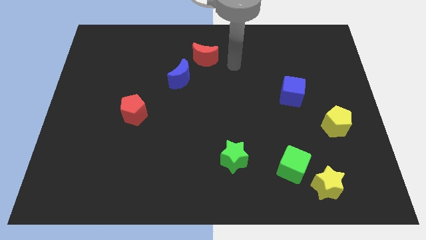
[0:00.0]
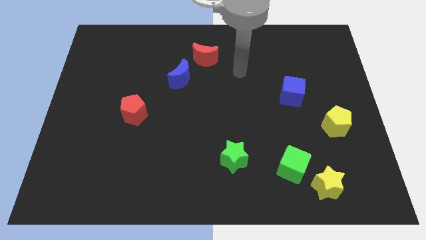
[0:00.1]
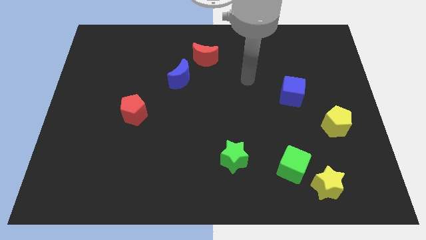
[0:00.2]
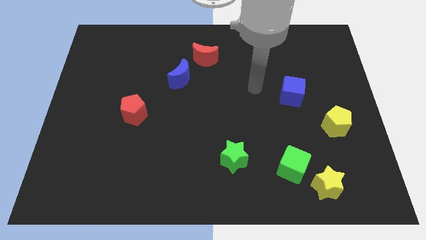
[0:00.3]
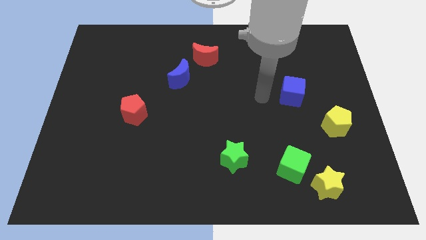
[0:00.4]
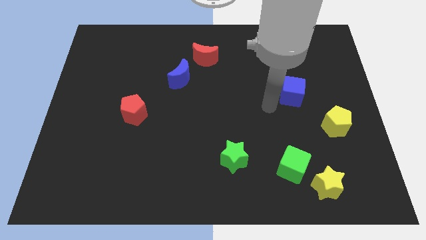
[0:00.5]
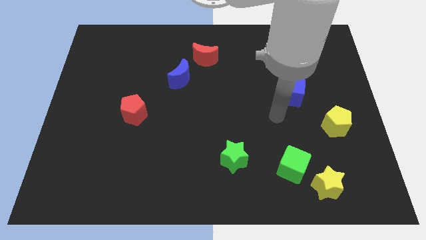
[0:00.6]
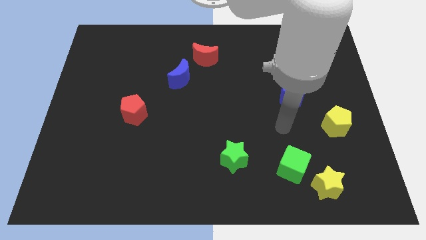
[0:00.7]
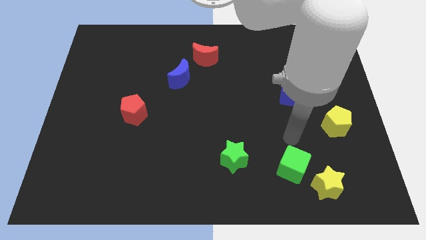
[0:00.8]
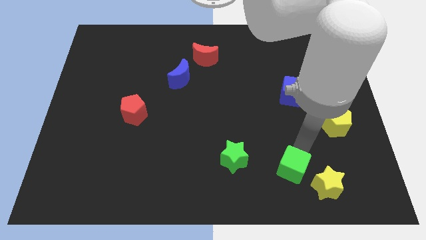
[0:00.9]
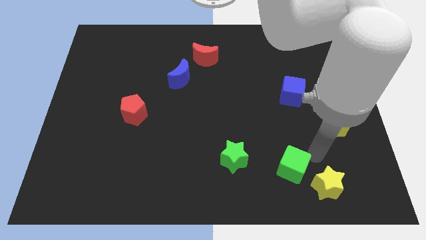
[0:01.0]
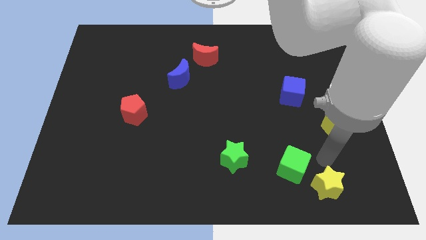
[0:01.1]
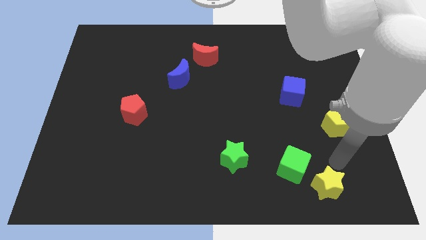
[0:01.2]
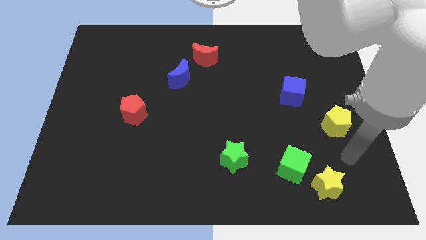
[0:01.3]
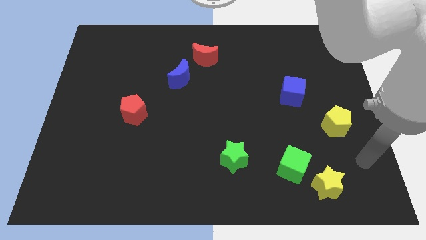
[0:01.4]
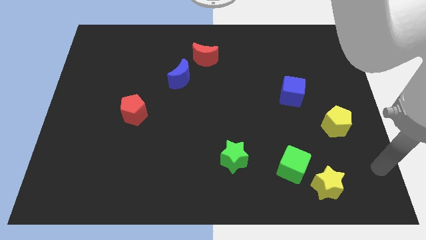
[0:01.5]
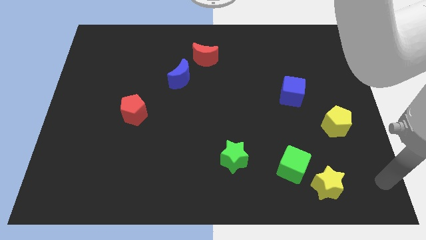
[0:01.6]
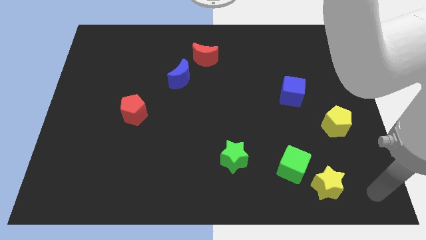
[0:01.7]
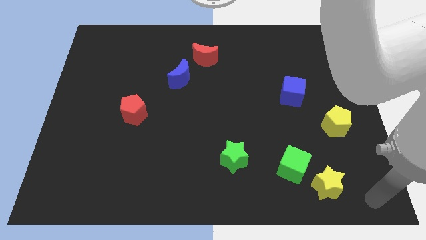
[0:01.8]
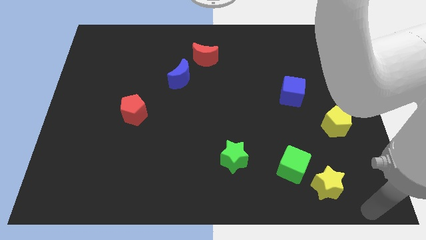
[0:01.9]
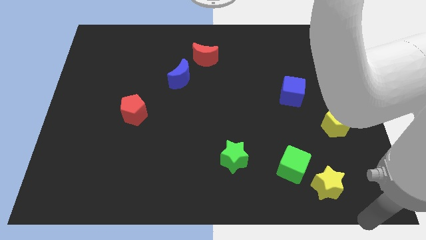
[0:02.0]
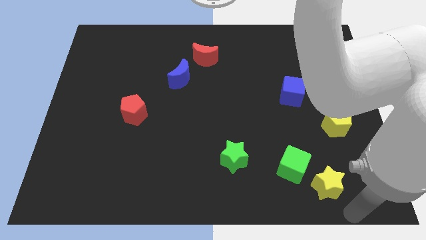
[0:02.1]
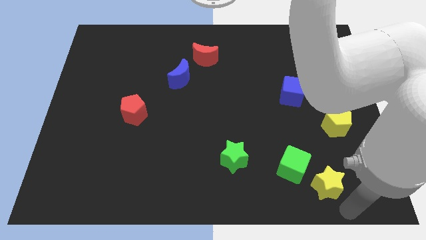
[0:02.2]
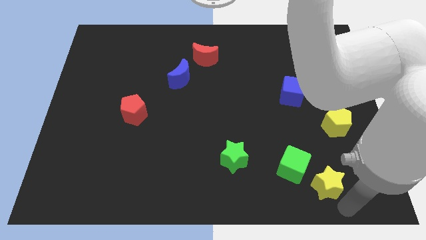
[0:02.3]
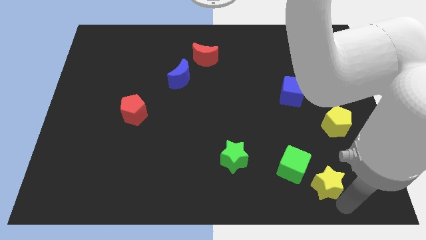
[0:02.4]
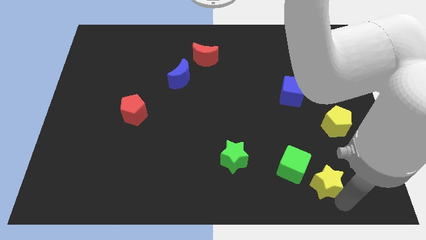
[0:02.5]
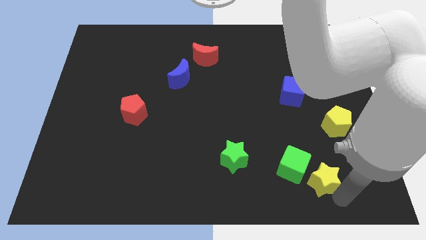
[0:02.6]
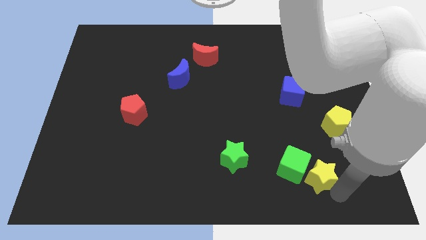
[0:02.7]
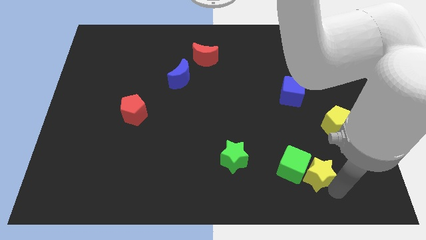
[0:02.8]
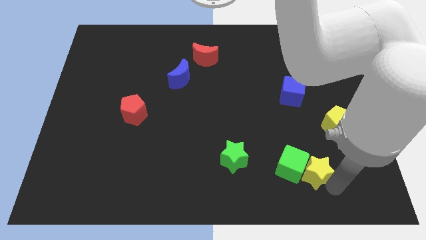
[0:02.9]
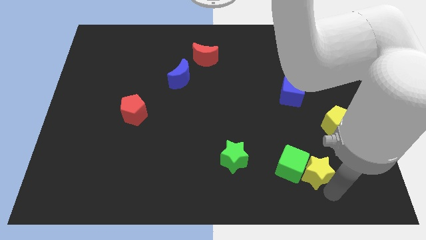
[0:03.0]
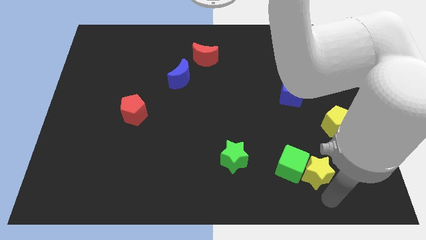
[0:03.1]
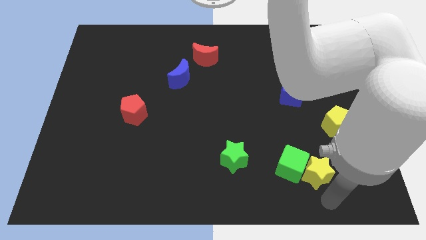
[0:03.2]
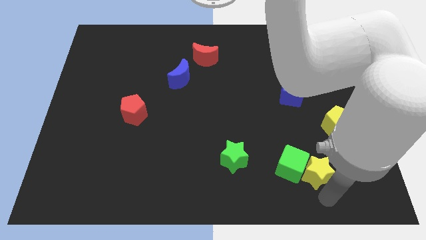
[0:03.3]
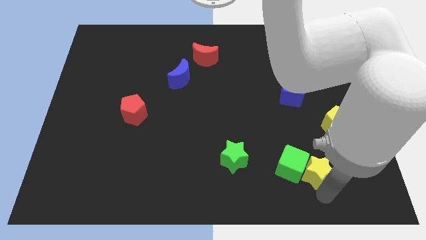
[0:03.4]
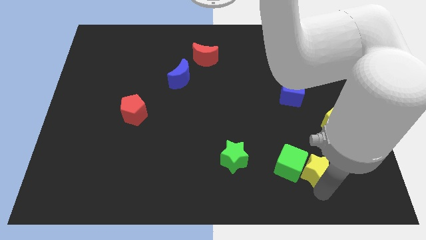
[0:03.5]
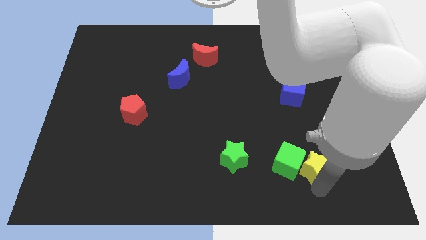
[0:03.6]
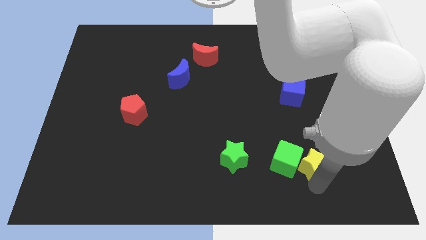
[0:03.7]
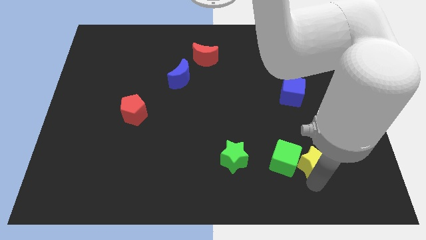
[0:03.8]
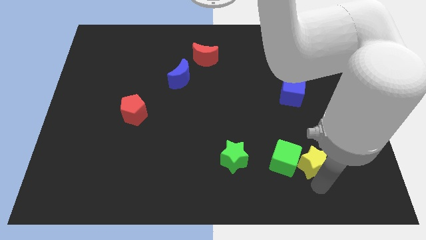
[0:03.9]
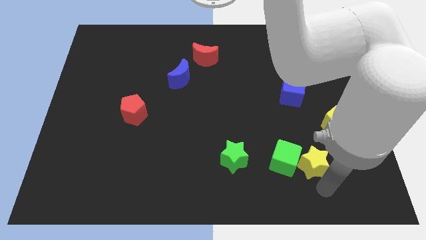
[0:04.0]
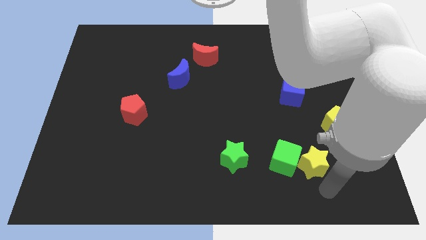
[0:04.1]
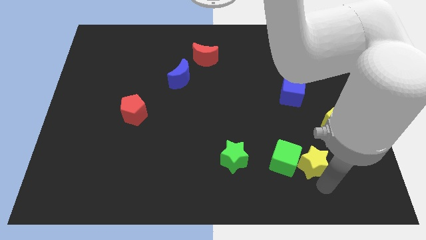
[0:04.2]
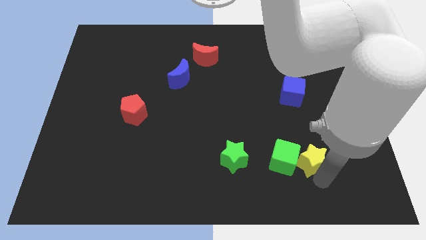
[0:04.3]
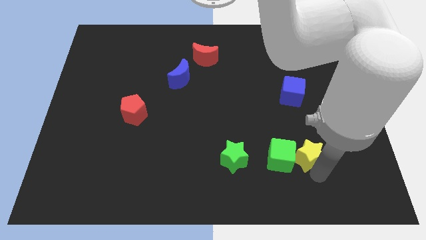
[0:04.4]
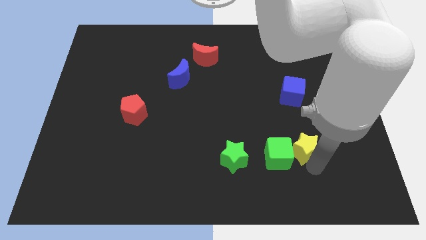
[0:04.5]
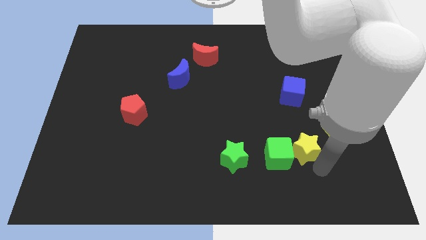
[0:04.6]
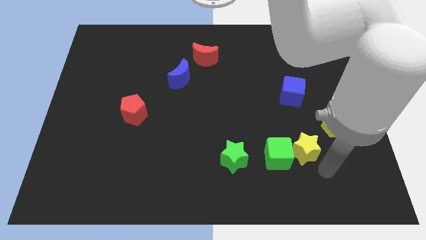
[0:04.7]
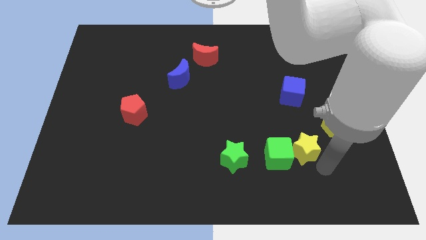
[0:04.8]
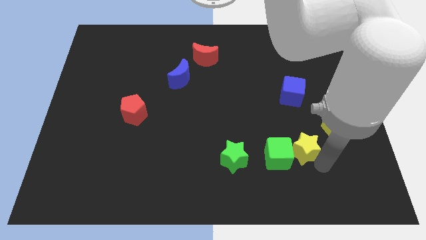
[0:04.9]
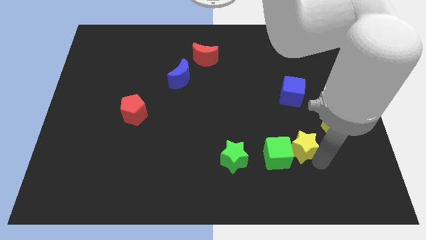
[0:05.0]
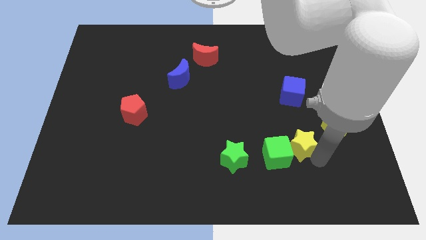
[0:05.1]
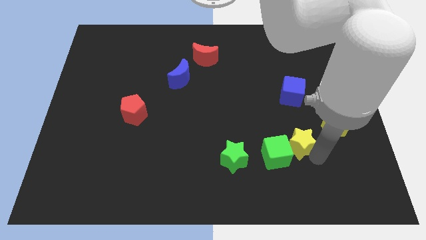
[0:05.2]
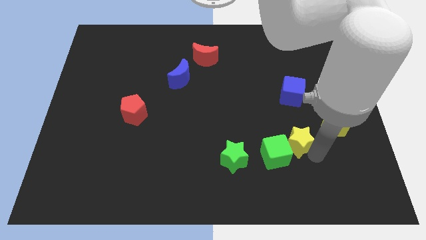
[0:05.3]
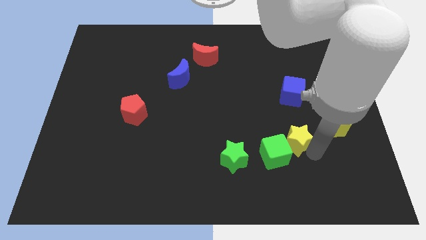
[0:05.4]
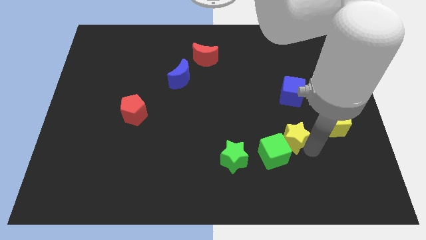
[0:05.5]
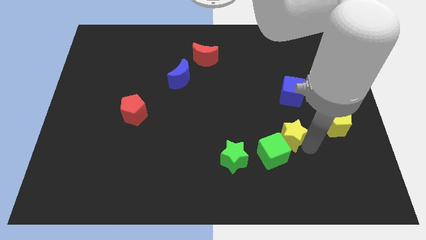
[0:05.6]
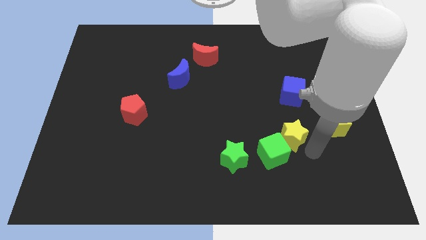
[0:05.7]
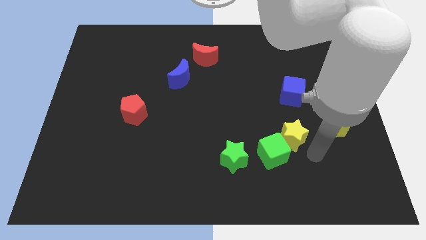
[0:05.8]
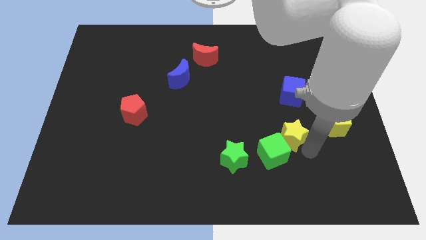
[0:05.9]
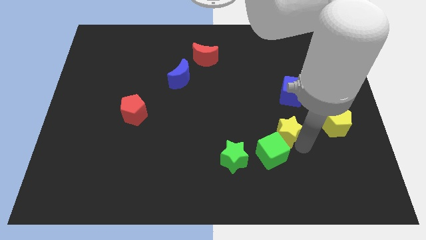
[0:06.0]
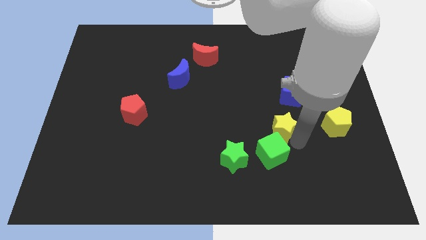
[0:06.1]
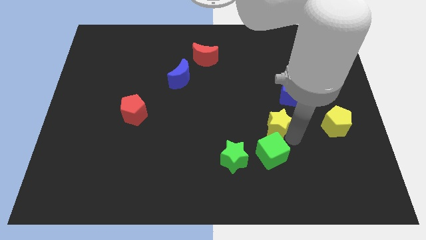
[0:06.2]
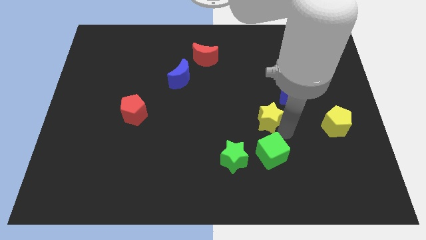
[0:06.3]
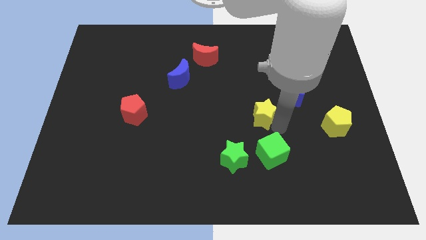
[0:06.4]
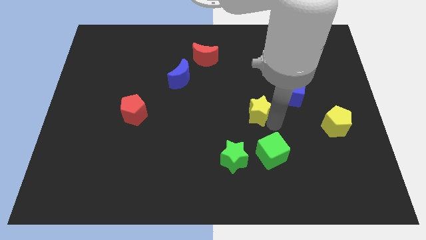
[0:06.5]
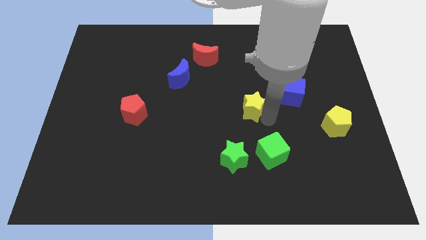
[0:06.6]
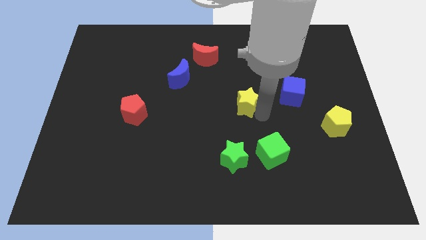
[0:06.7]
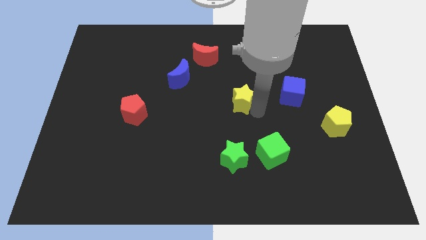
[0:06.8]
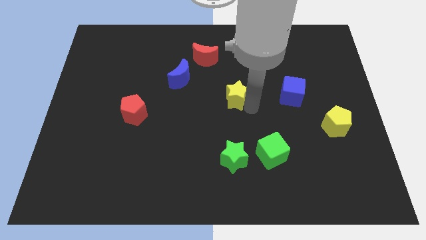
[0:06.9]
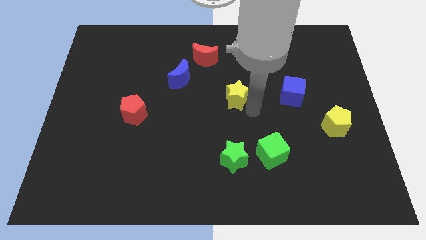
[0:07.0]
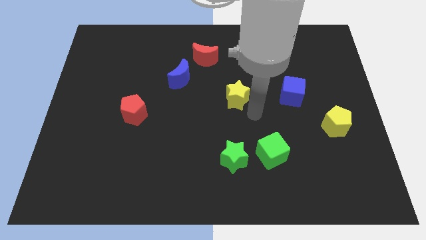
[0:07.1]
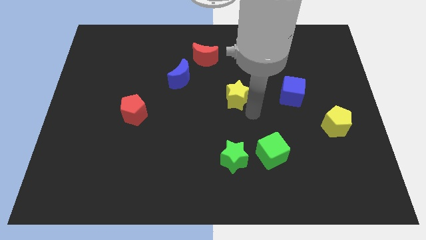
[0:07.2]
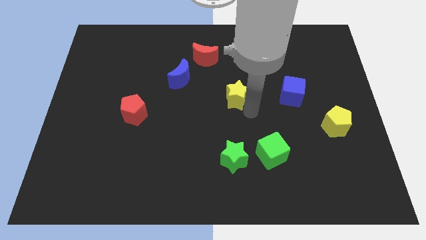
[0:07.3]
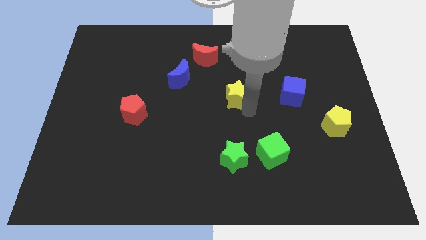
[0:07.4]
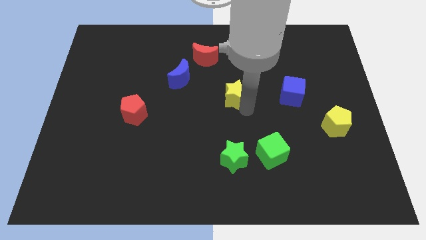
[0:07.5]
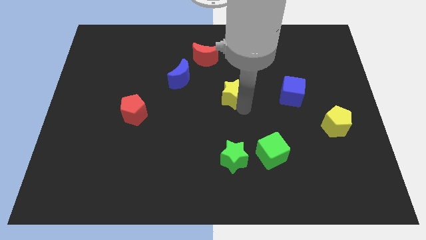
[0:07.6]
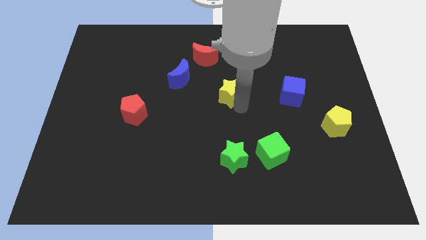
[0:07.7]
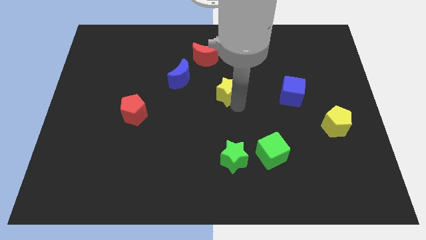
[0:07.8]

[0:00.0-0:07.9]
slide the yellow star right of the blue moon

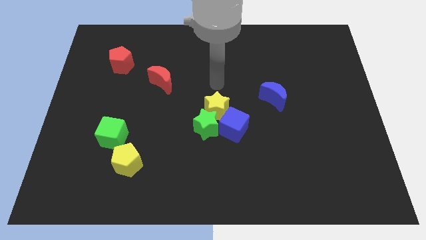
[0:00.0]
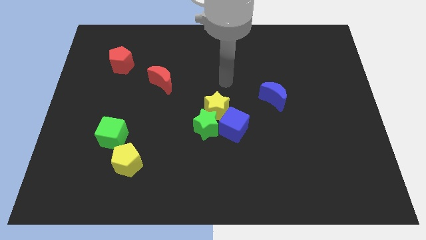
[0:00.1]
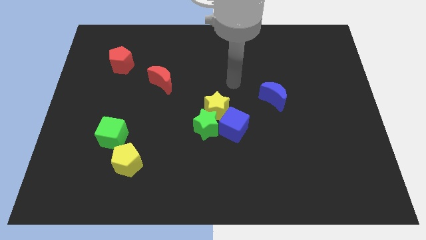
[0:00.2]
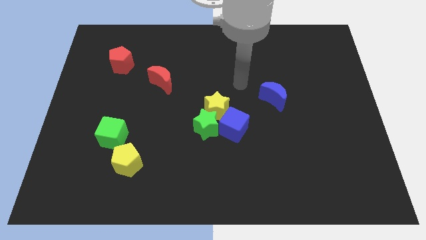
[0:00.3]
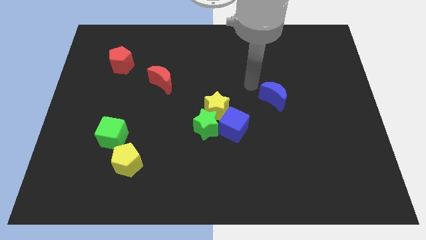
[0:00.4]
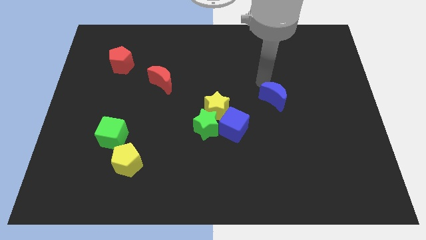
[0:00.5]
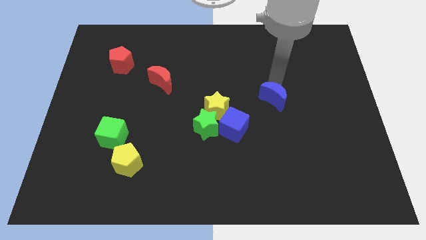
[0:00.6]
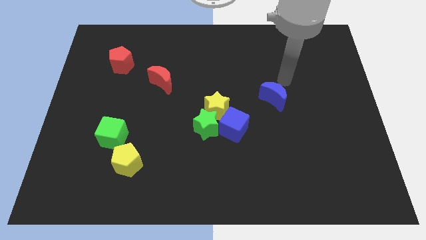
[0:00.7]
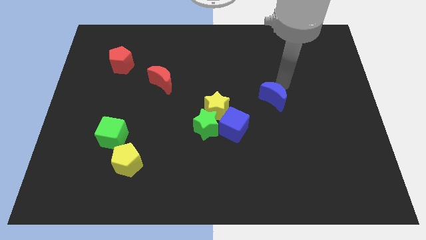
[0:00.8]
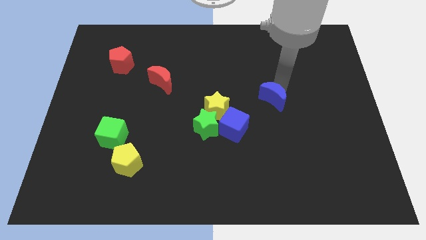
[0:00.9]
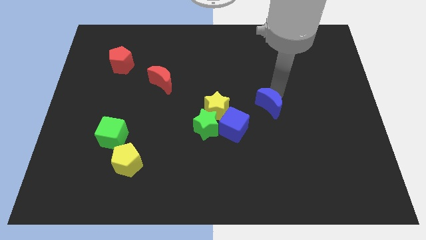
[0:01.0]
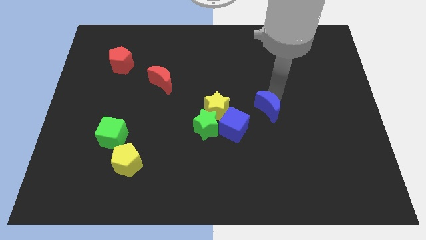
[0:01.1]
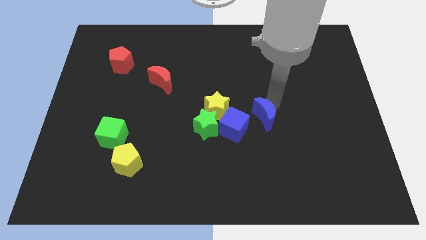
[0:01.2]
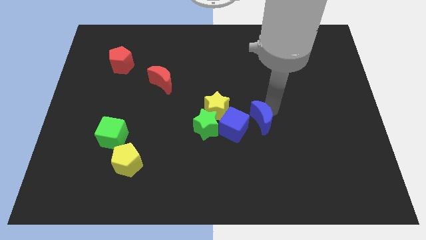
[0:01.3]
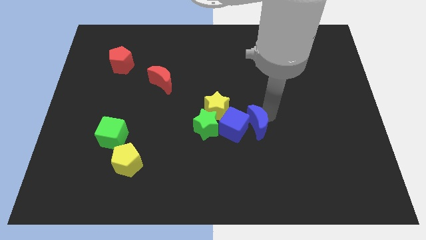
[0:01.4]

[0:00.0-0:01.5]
push the blue moon diagonally down and to the right of the yellow star
